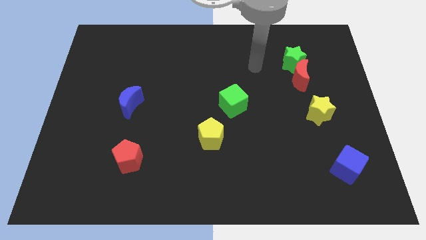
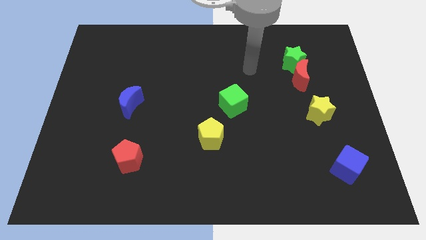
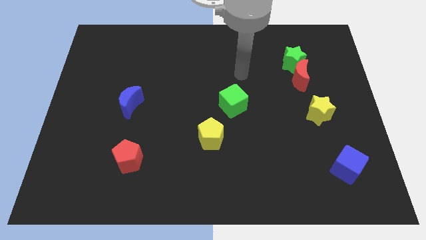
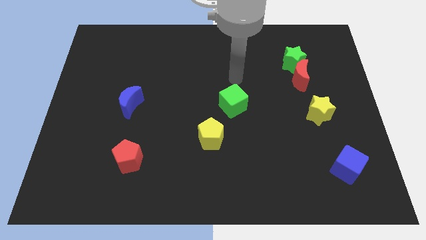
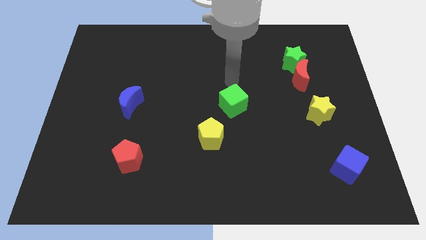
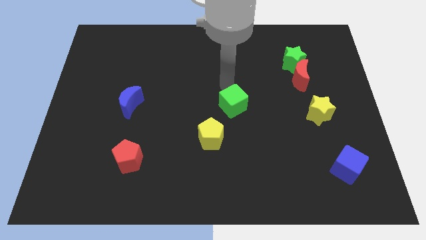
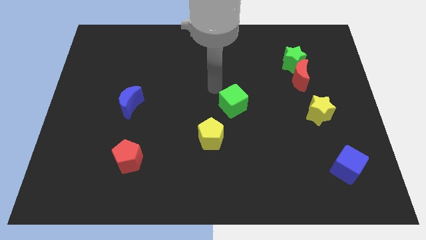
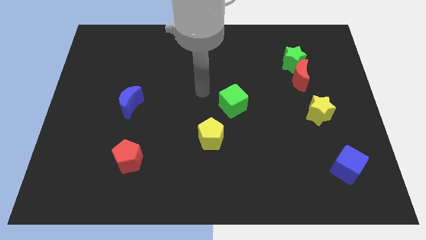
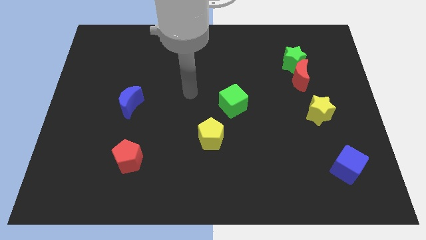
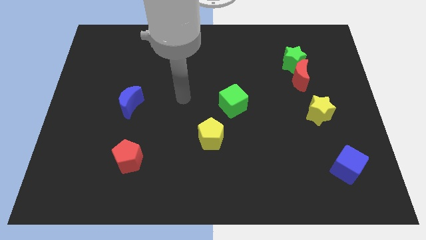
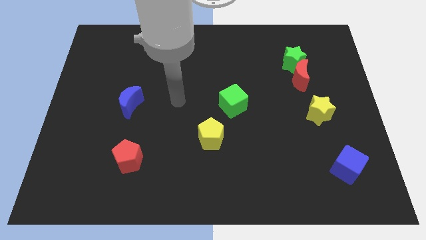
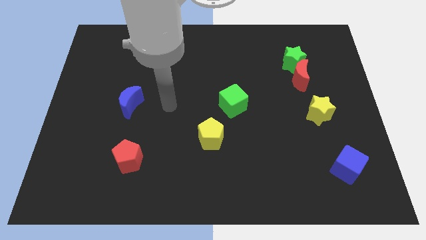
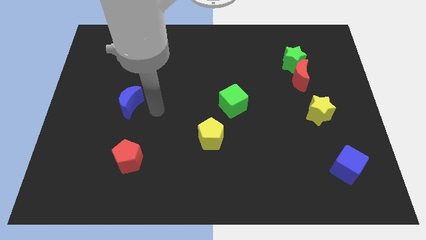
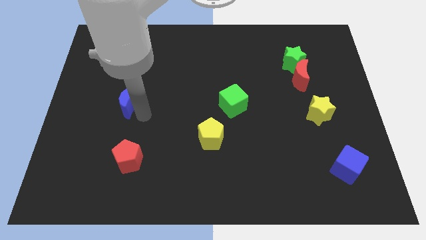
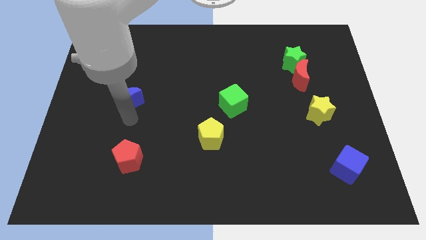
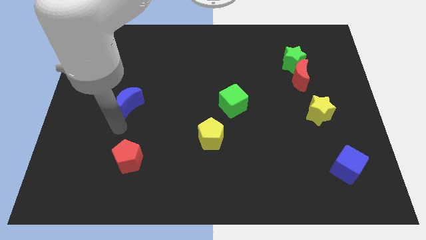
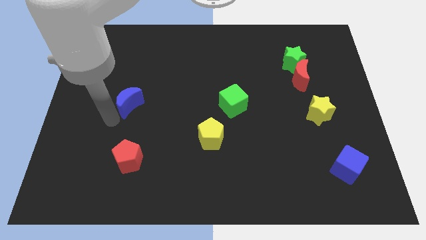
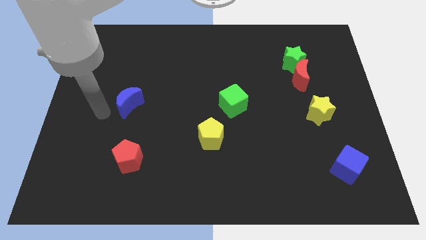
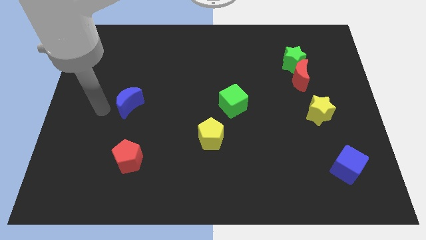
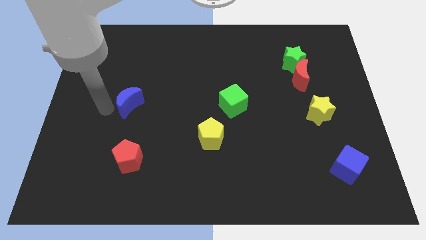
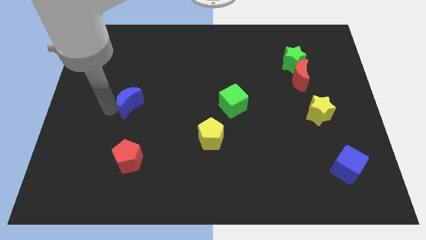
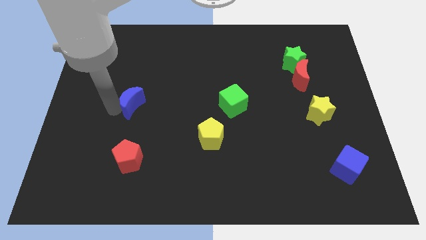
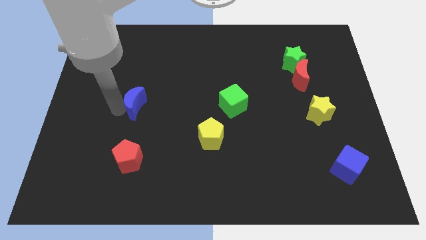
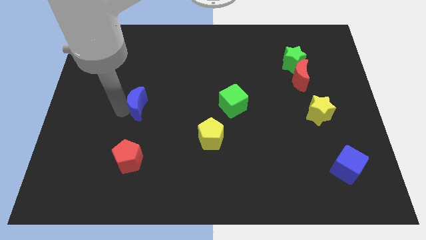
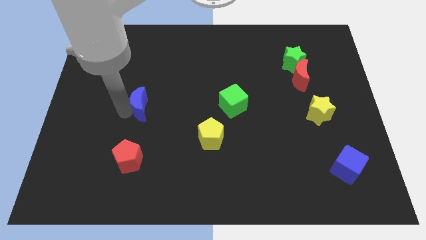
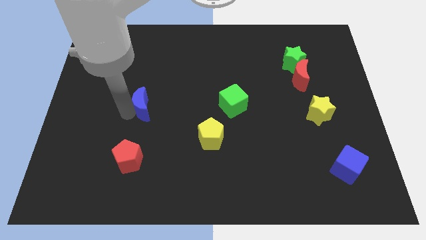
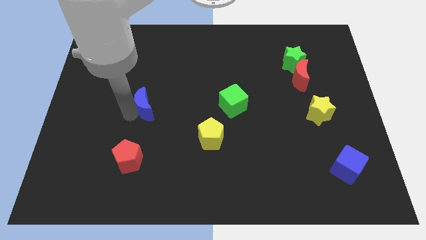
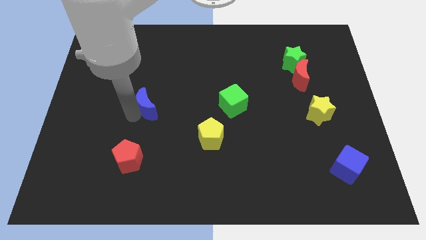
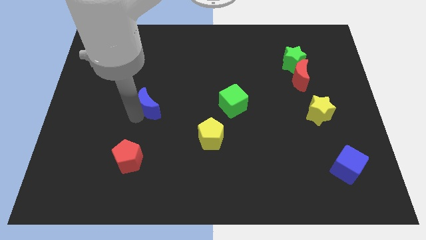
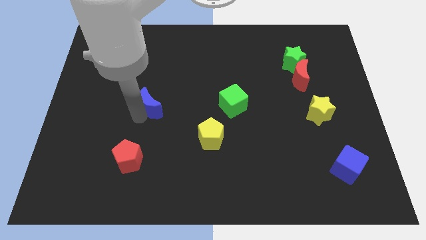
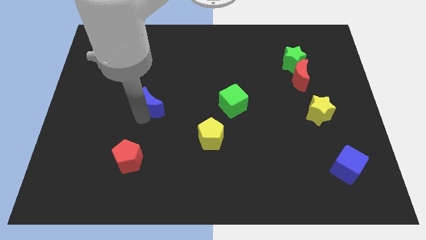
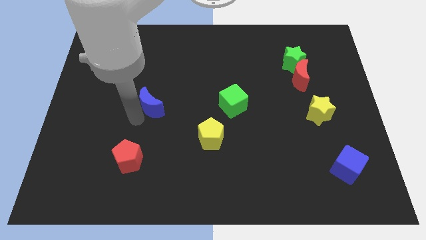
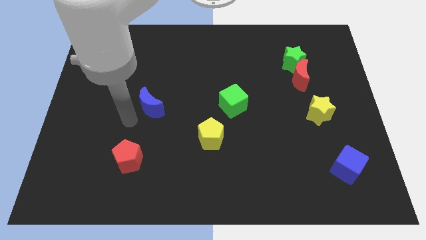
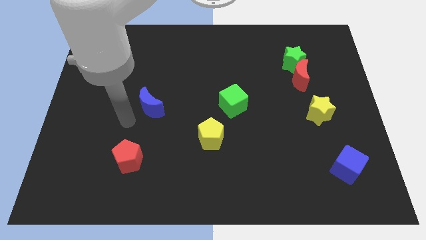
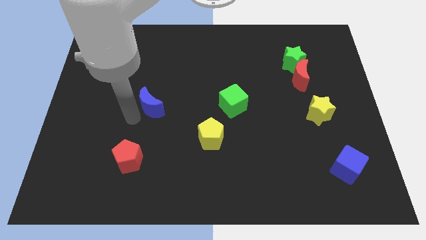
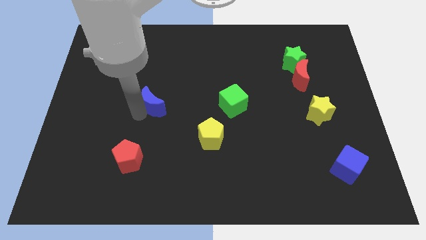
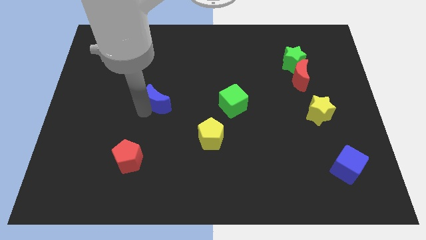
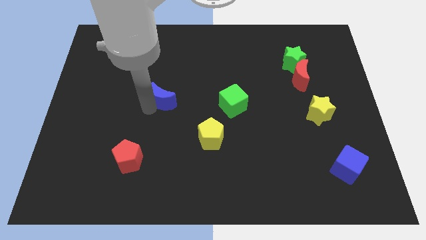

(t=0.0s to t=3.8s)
slightly slide the blue moon to the right

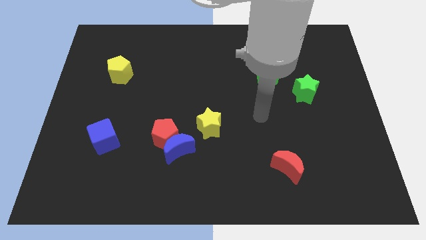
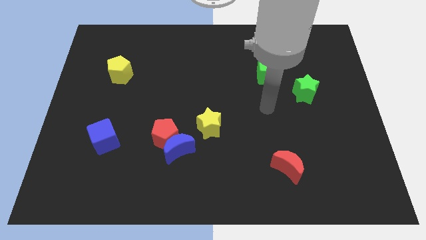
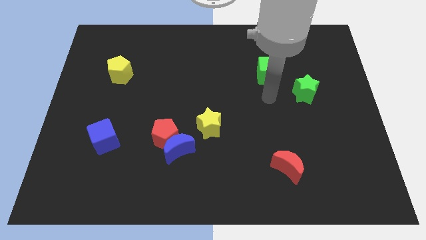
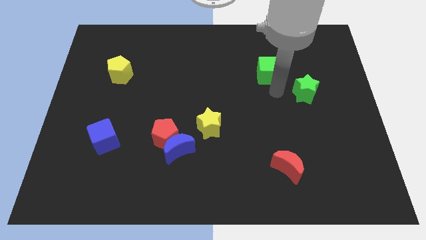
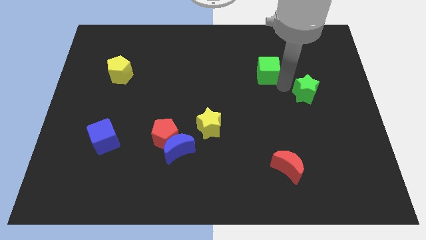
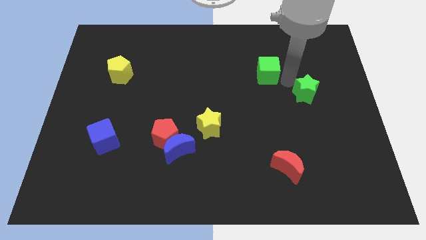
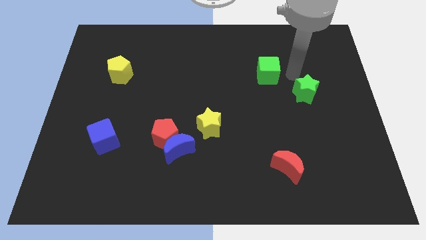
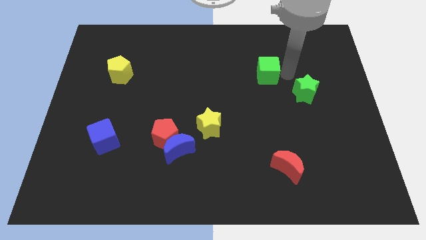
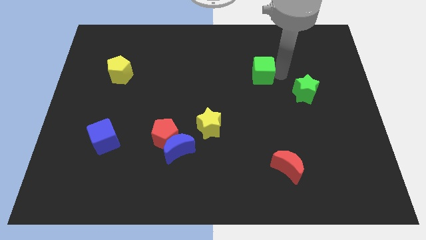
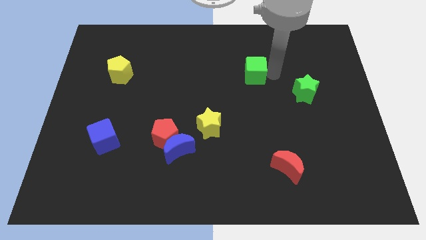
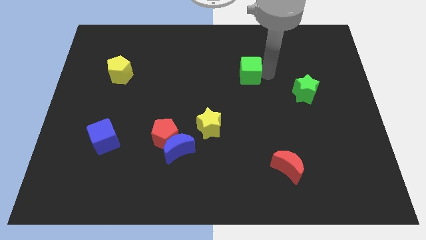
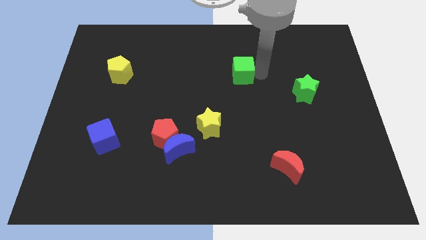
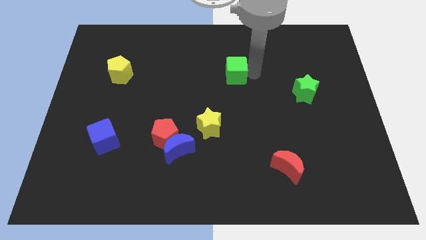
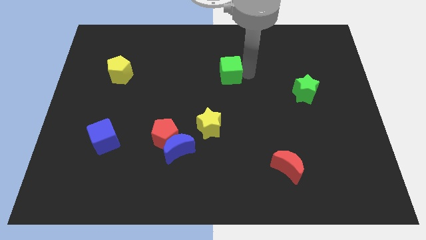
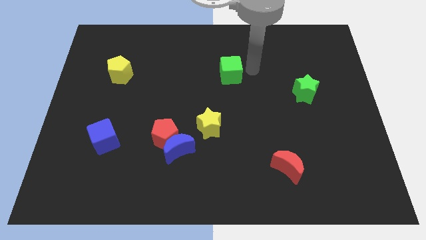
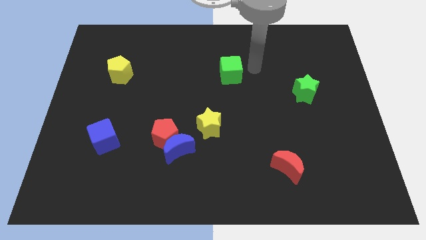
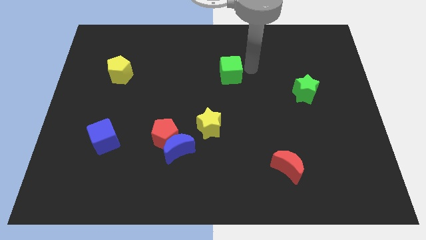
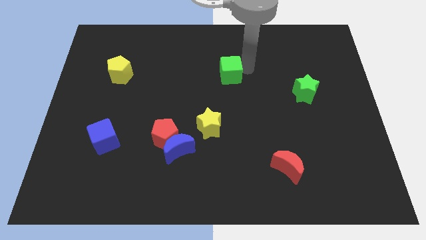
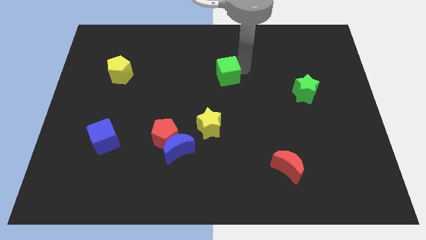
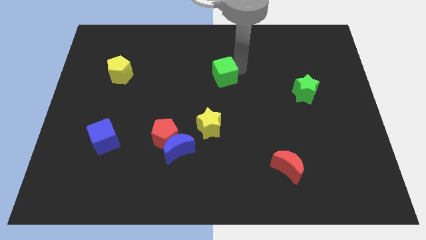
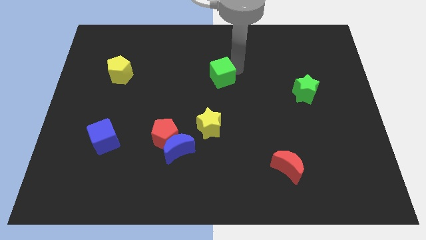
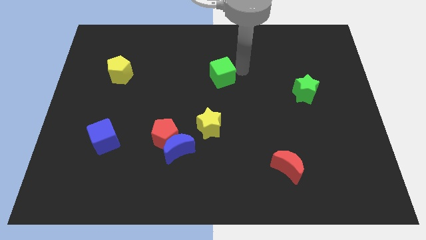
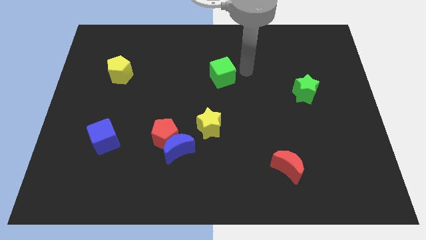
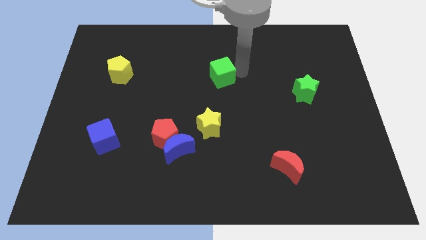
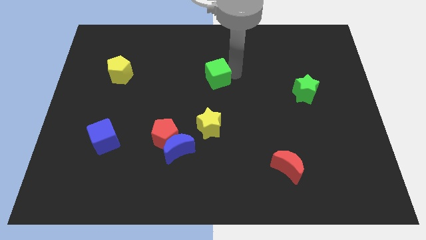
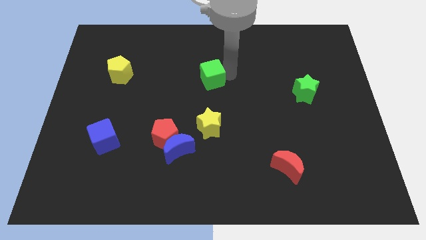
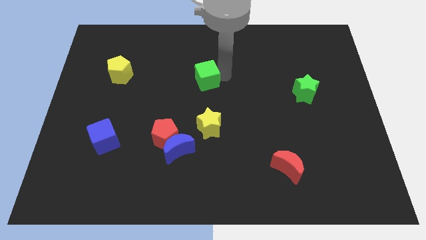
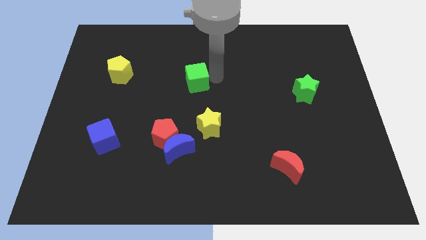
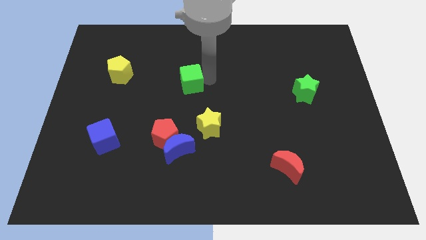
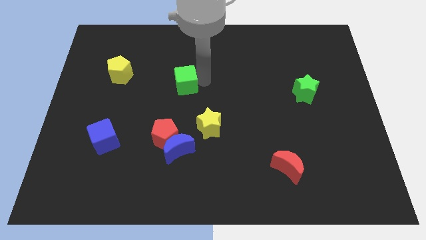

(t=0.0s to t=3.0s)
push the green cube left

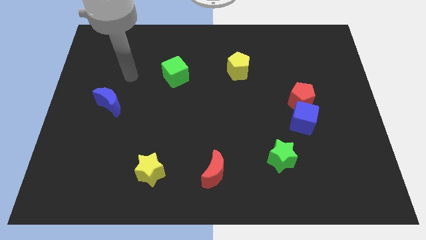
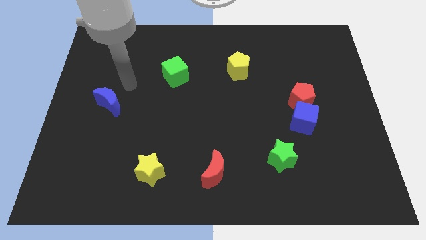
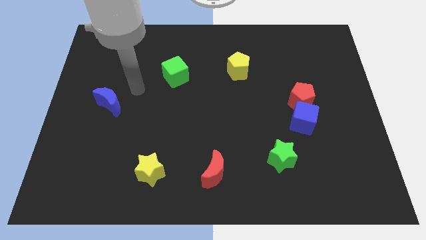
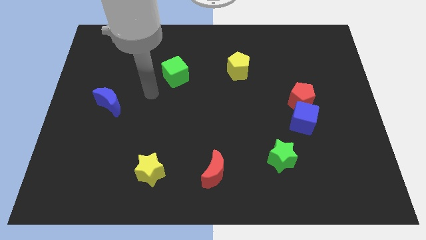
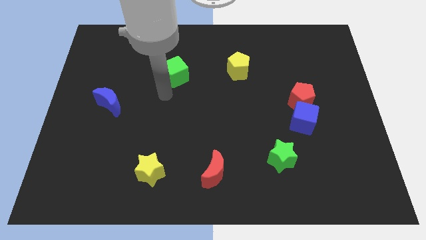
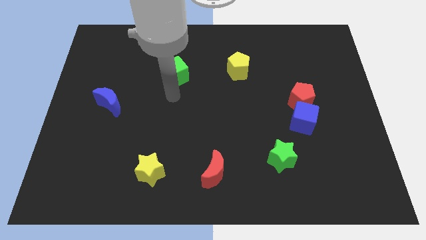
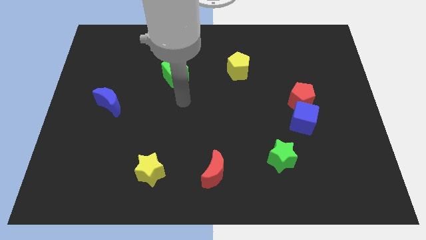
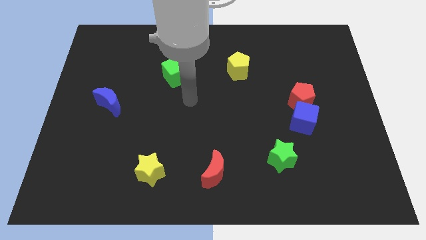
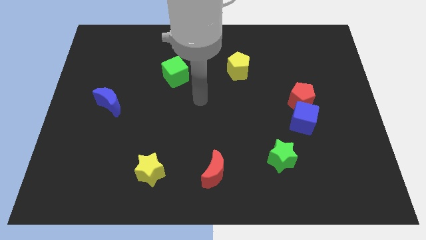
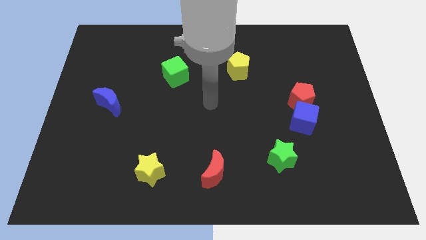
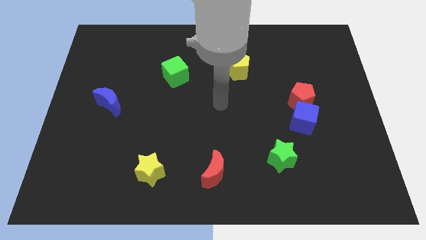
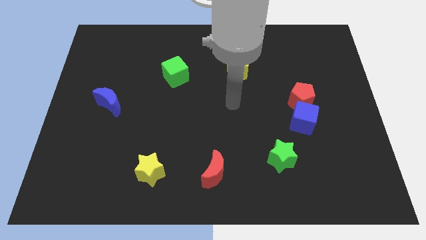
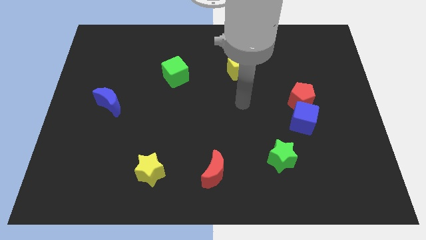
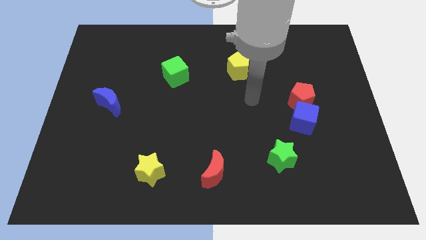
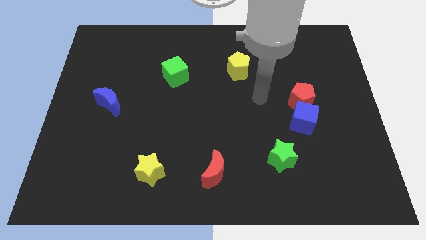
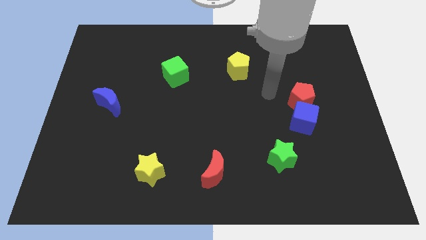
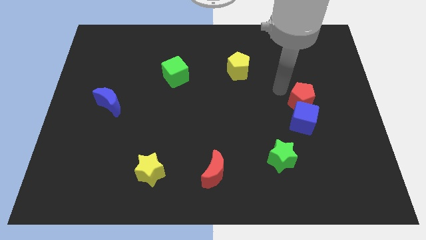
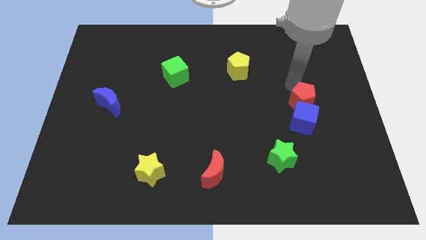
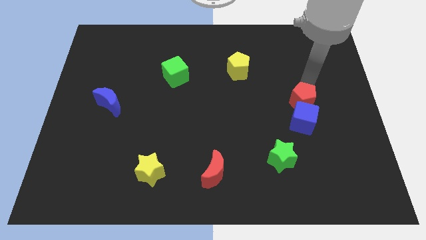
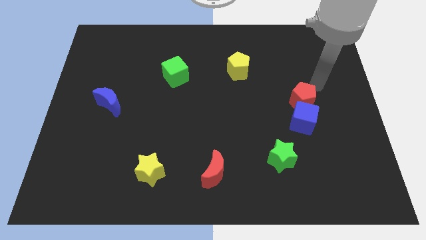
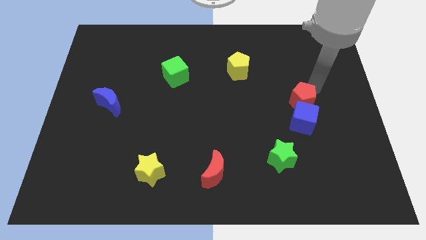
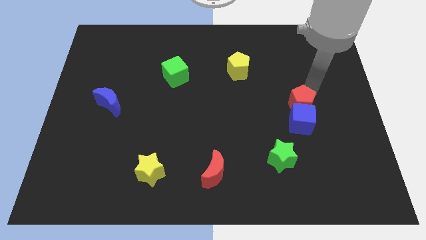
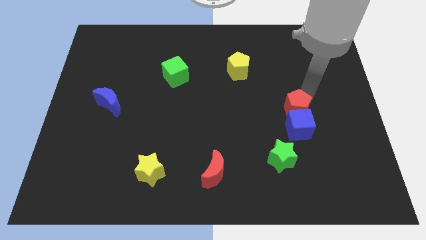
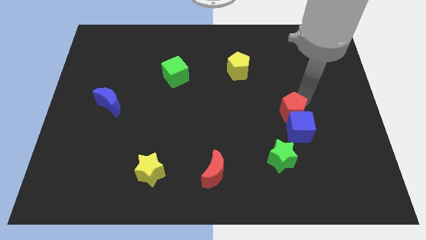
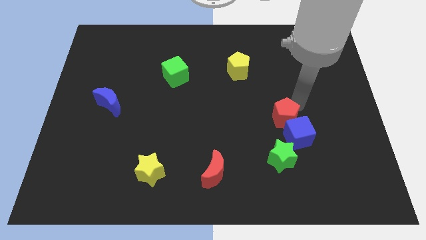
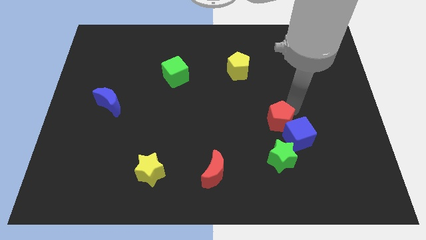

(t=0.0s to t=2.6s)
slightly push the red pentagon downwards and to the left diagonally
